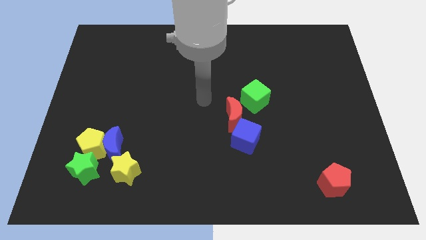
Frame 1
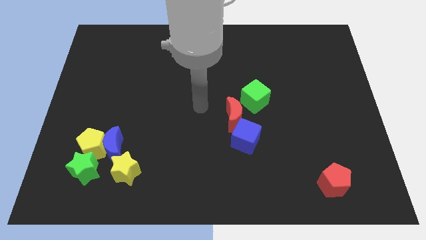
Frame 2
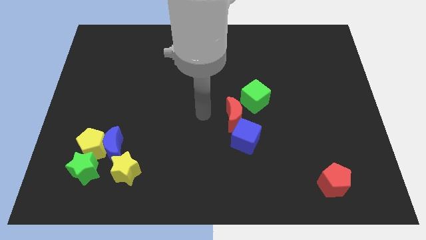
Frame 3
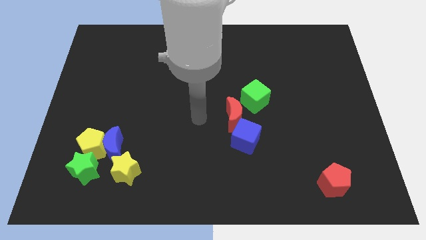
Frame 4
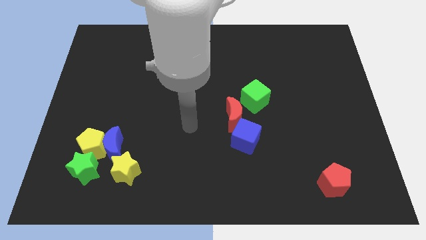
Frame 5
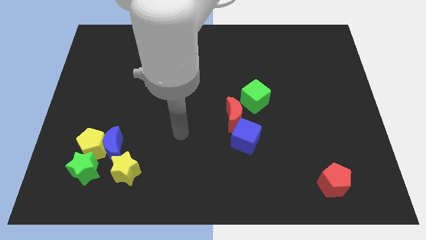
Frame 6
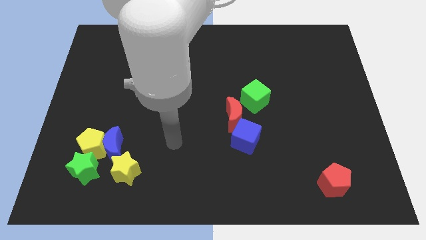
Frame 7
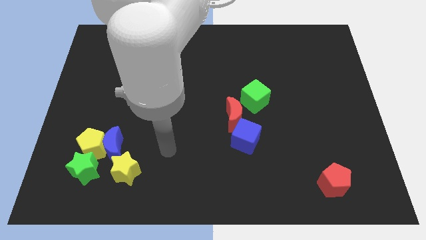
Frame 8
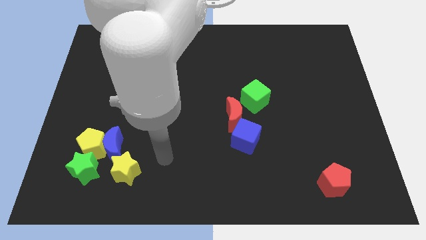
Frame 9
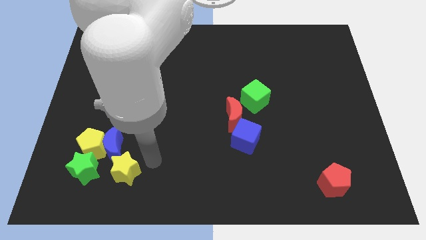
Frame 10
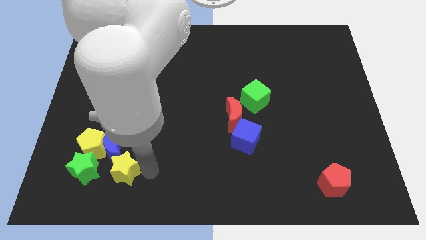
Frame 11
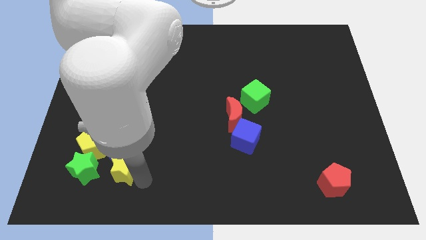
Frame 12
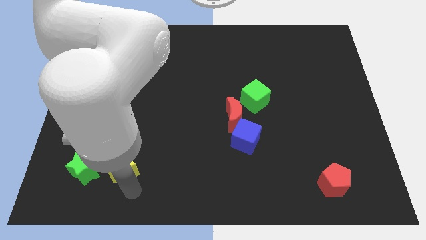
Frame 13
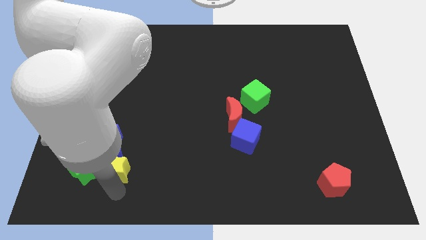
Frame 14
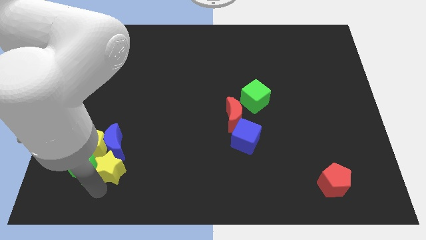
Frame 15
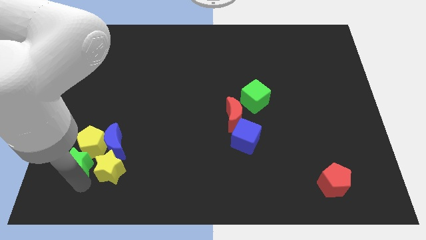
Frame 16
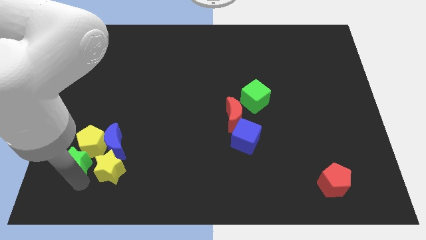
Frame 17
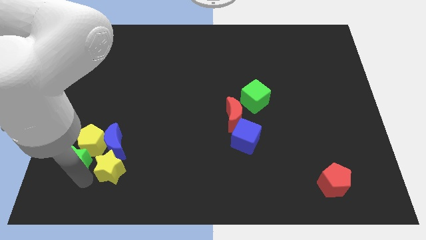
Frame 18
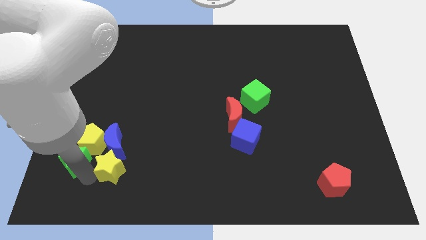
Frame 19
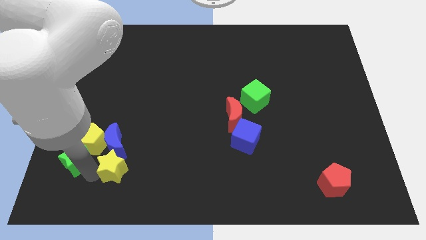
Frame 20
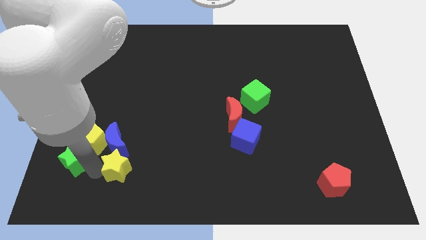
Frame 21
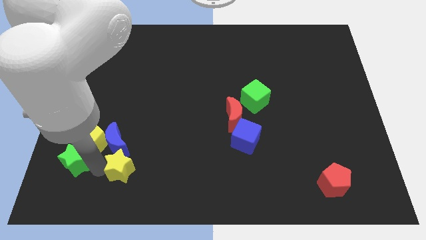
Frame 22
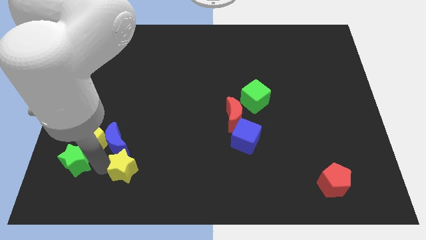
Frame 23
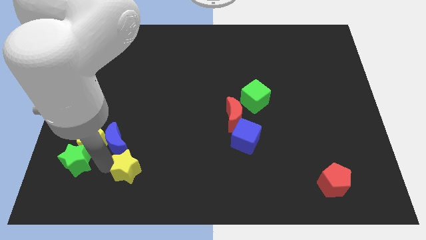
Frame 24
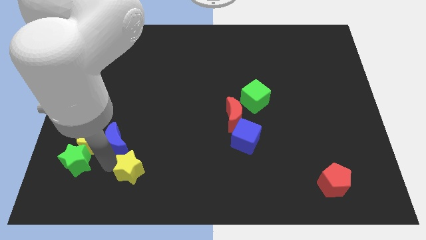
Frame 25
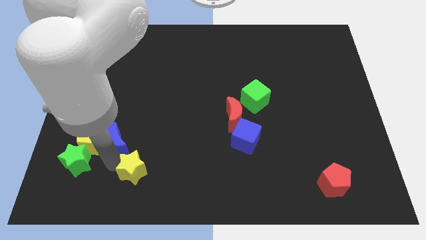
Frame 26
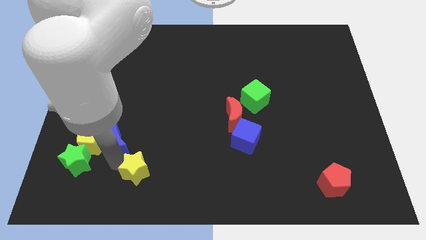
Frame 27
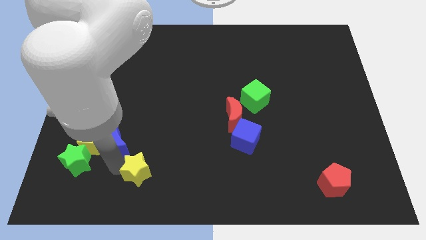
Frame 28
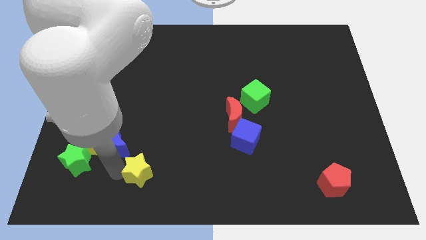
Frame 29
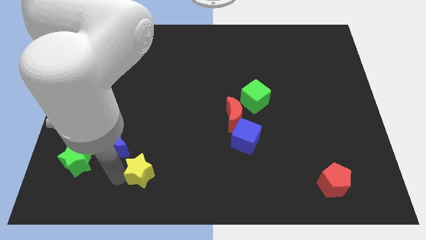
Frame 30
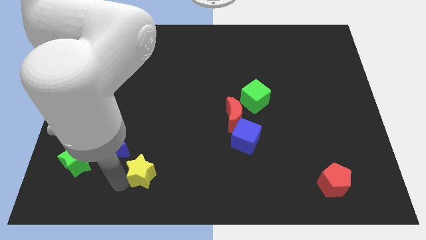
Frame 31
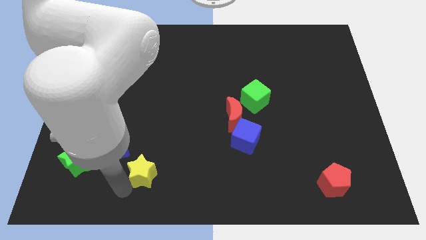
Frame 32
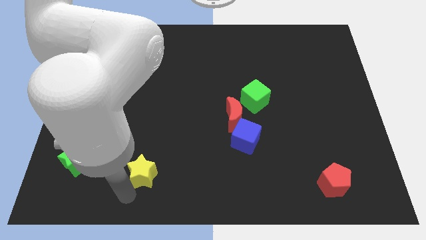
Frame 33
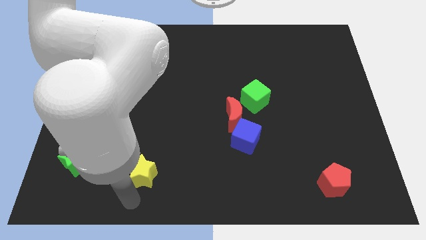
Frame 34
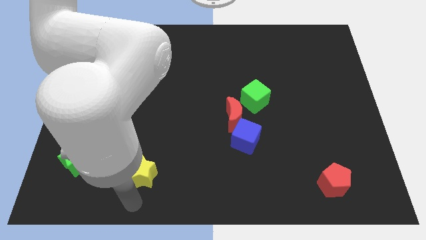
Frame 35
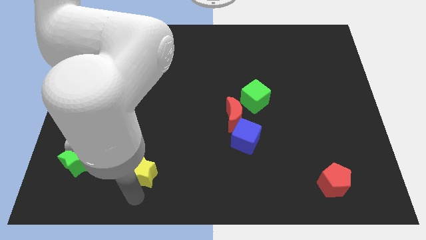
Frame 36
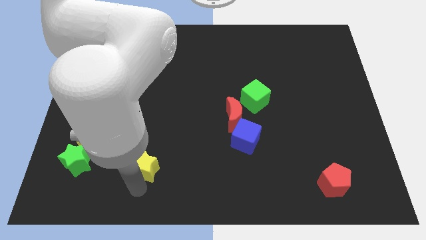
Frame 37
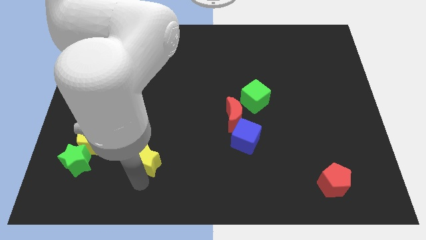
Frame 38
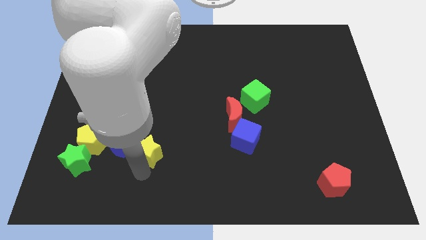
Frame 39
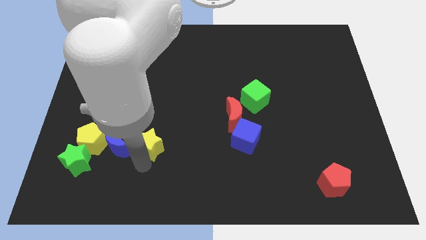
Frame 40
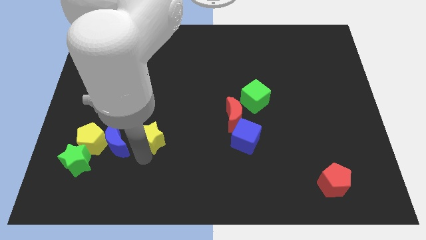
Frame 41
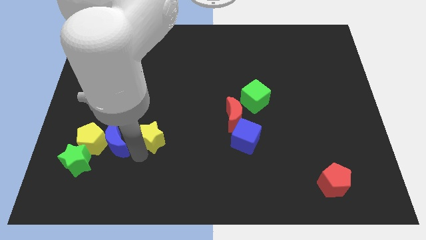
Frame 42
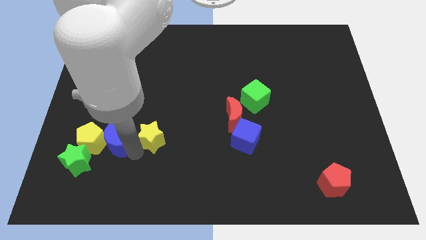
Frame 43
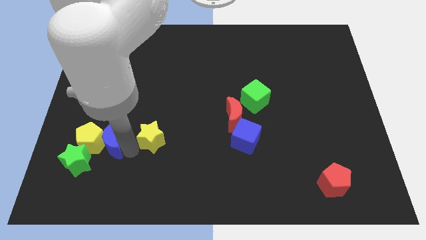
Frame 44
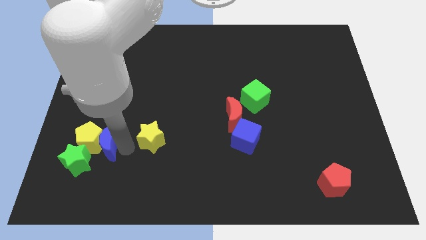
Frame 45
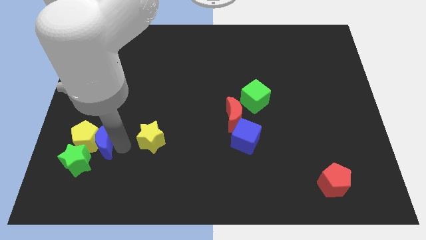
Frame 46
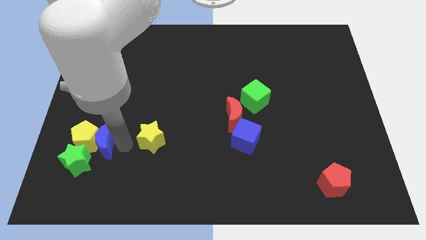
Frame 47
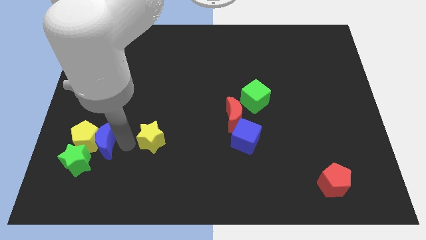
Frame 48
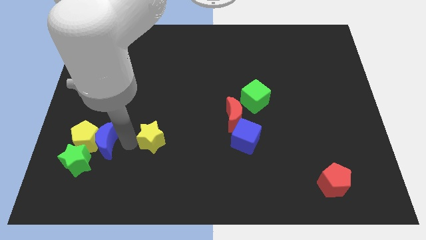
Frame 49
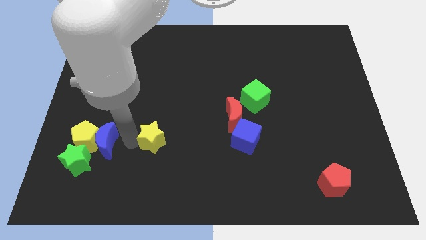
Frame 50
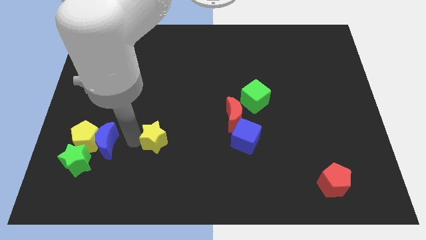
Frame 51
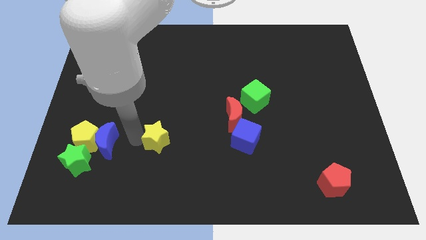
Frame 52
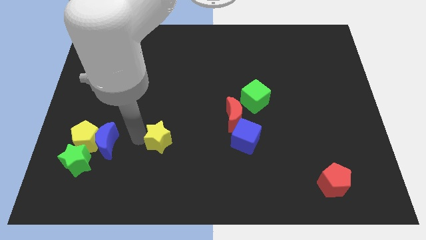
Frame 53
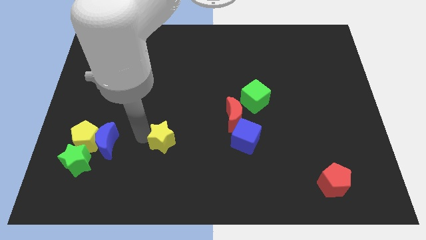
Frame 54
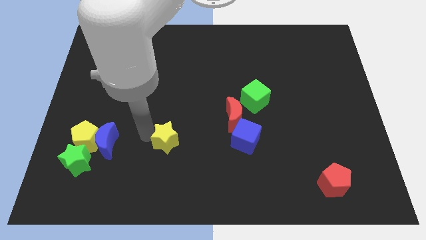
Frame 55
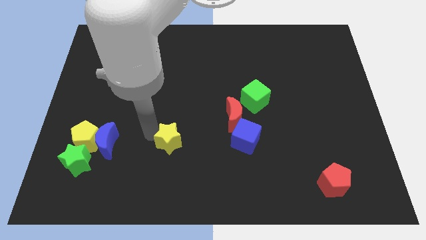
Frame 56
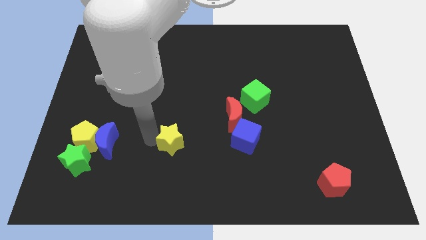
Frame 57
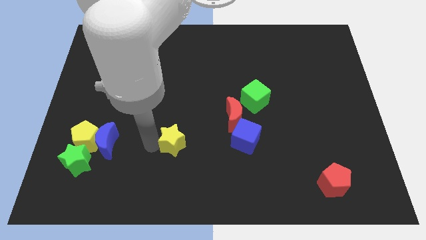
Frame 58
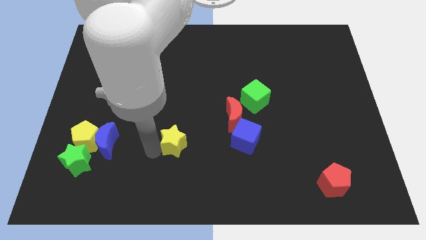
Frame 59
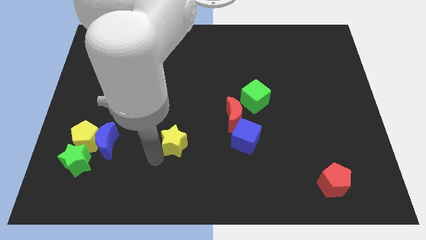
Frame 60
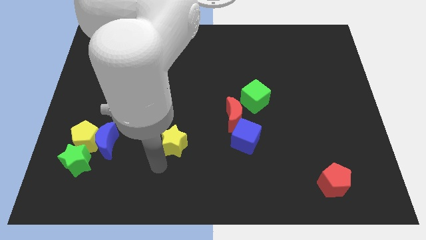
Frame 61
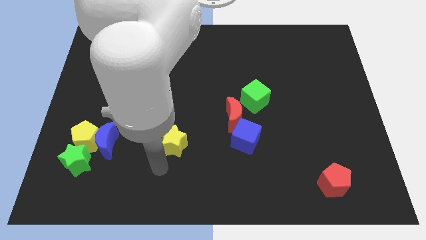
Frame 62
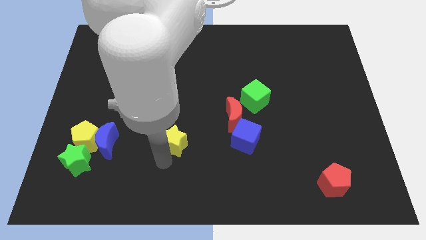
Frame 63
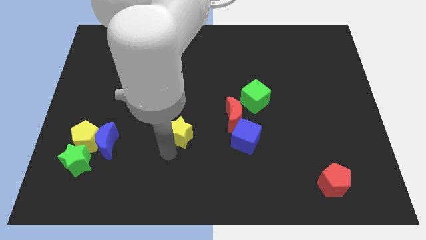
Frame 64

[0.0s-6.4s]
put the yellow star to the middle
